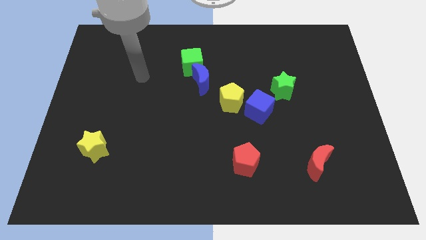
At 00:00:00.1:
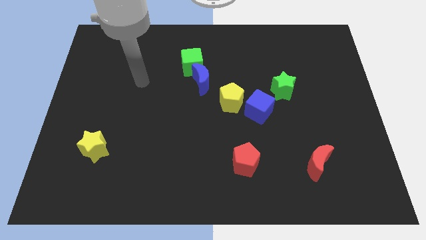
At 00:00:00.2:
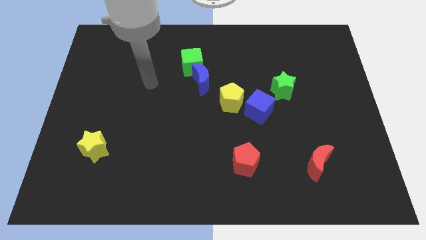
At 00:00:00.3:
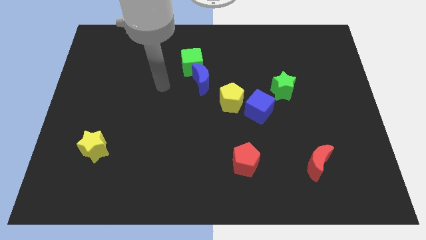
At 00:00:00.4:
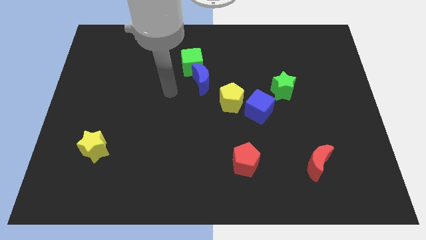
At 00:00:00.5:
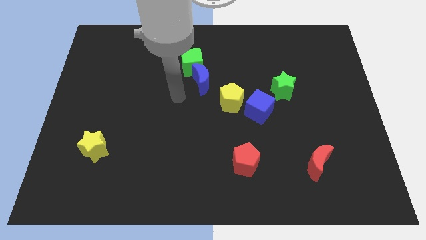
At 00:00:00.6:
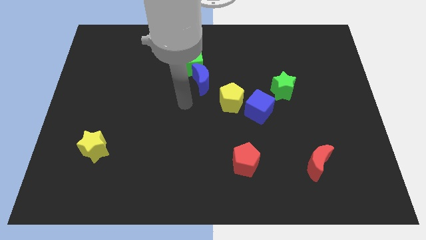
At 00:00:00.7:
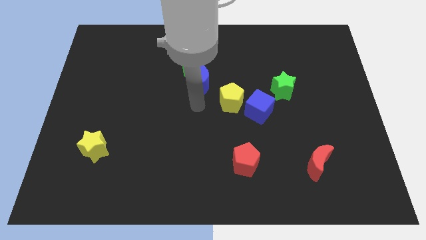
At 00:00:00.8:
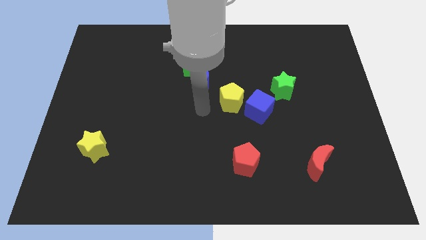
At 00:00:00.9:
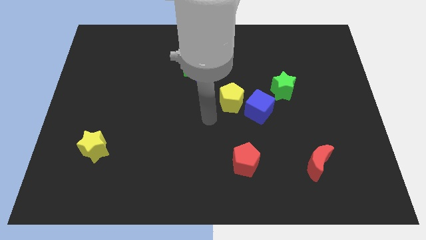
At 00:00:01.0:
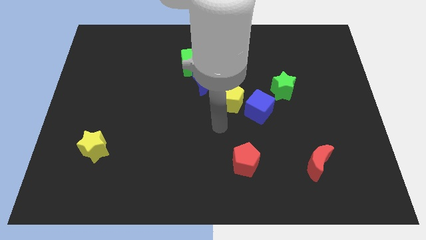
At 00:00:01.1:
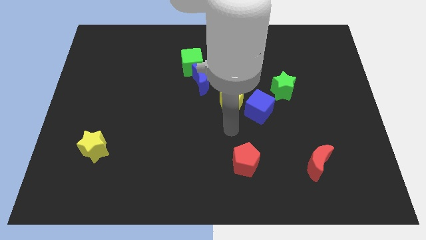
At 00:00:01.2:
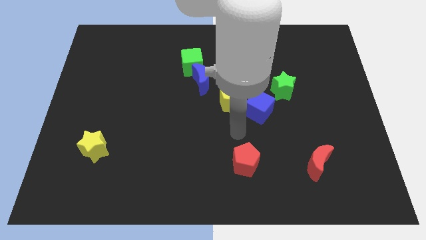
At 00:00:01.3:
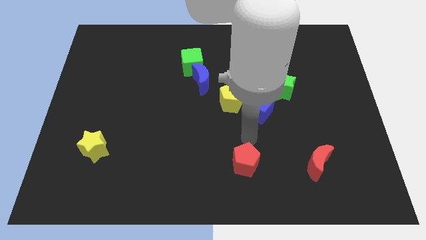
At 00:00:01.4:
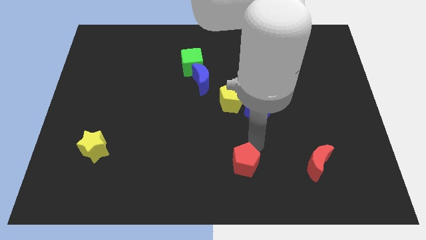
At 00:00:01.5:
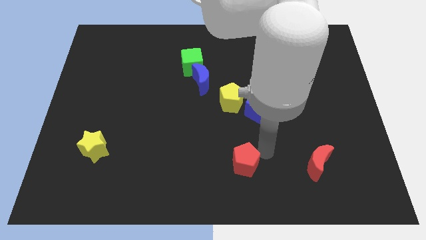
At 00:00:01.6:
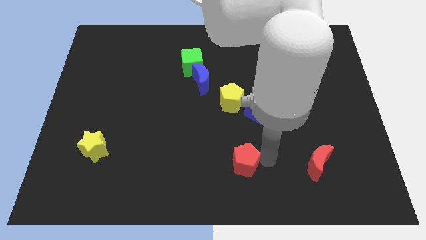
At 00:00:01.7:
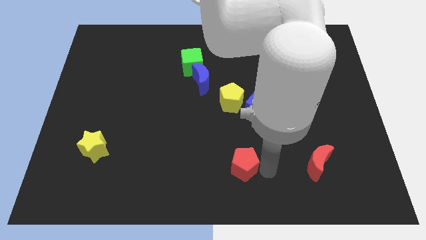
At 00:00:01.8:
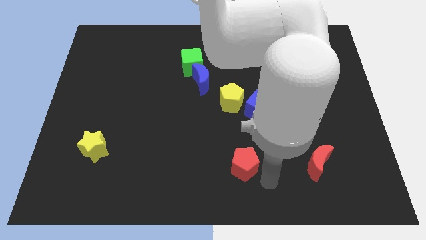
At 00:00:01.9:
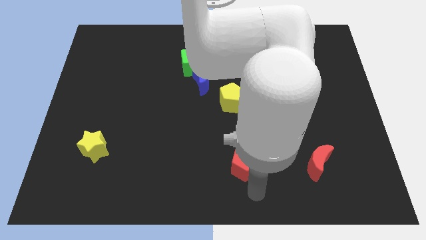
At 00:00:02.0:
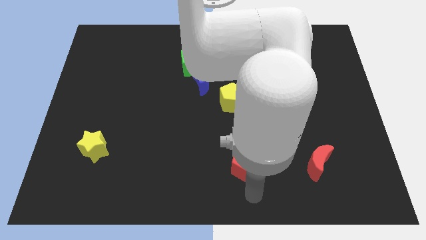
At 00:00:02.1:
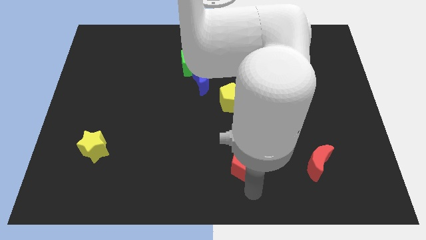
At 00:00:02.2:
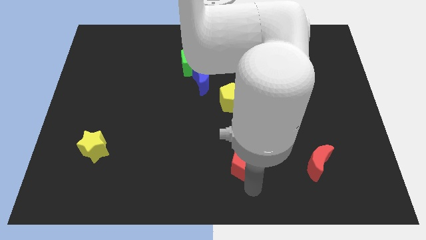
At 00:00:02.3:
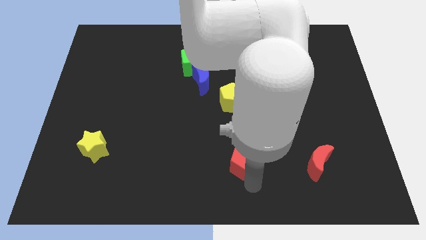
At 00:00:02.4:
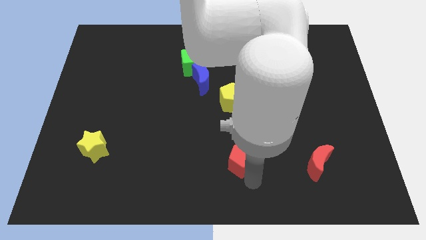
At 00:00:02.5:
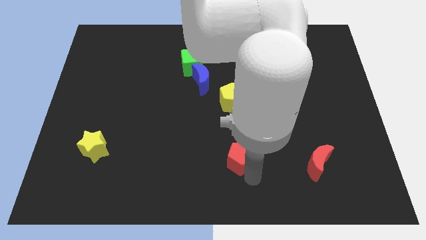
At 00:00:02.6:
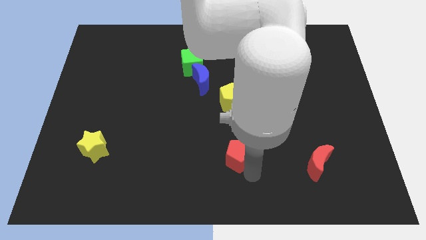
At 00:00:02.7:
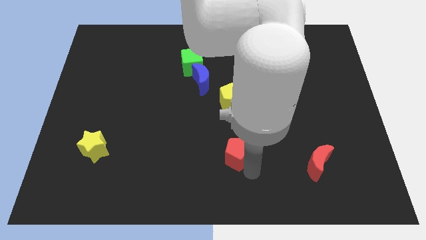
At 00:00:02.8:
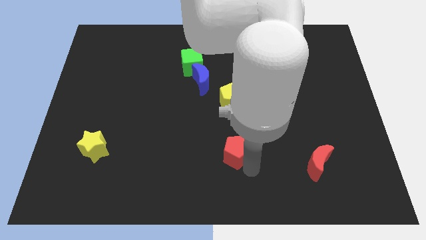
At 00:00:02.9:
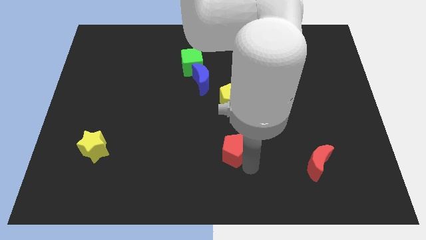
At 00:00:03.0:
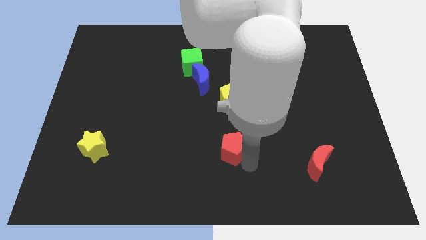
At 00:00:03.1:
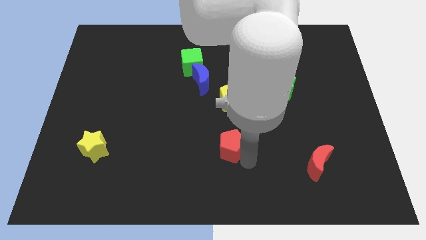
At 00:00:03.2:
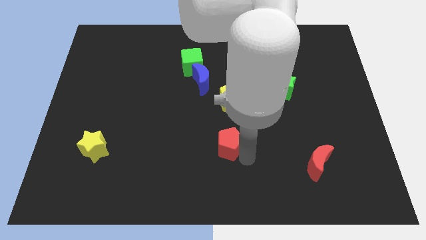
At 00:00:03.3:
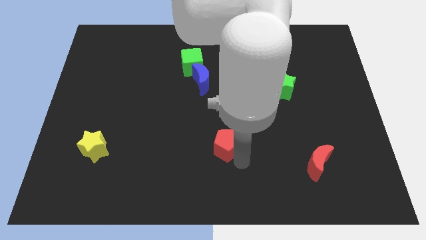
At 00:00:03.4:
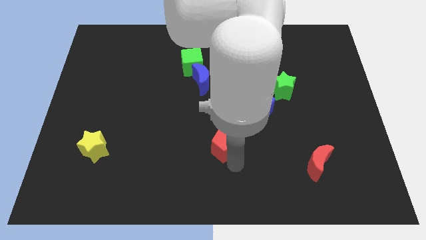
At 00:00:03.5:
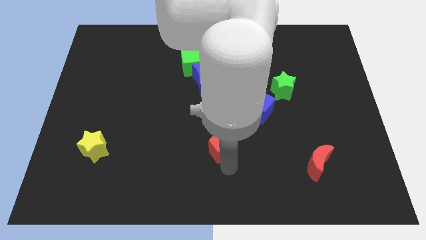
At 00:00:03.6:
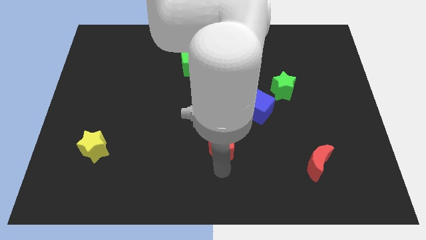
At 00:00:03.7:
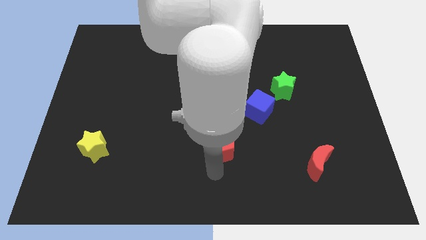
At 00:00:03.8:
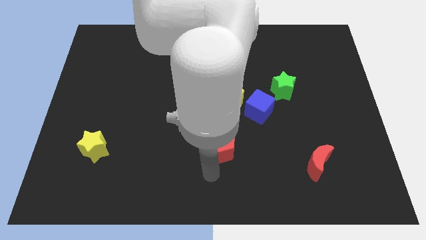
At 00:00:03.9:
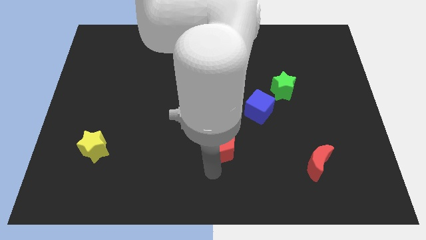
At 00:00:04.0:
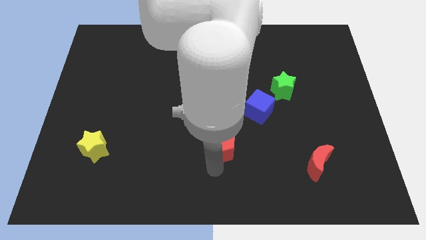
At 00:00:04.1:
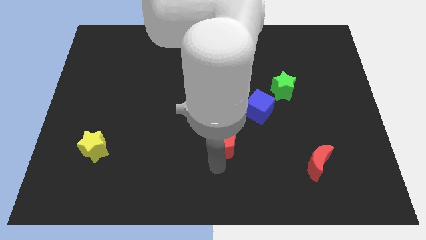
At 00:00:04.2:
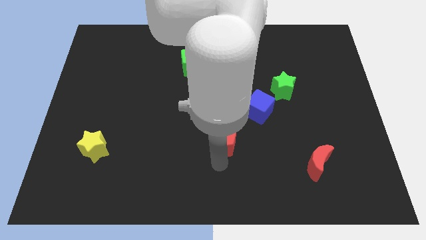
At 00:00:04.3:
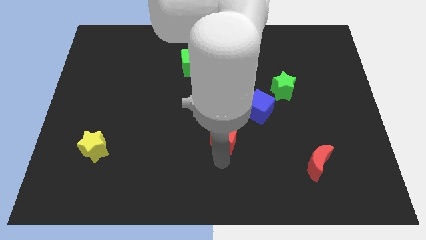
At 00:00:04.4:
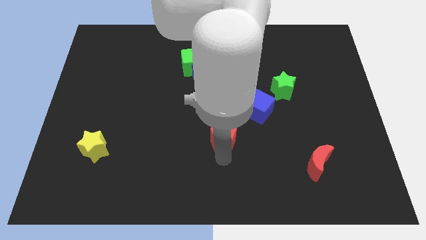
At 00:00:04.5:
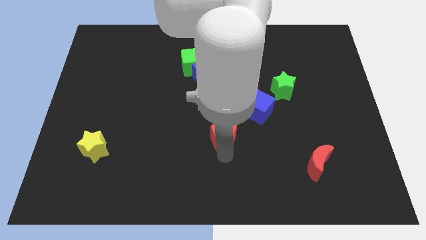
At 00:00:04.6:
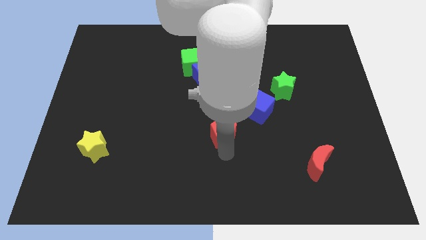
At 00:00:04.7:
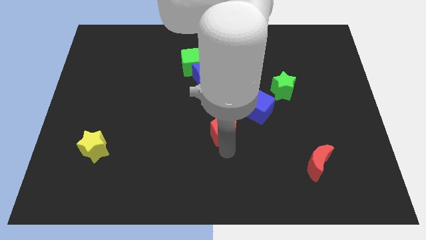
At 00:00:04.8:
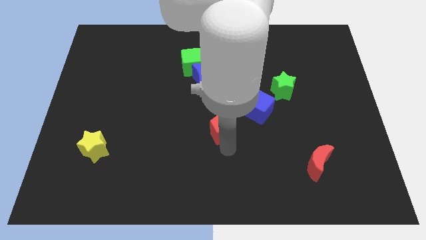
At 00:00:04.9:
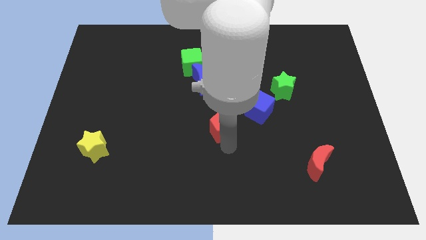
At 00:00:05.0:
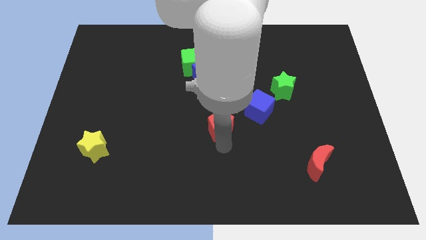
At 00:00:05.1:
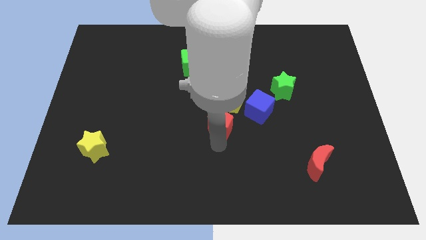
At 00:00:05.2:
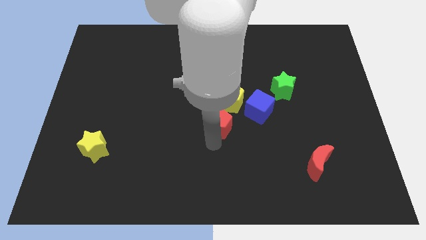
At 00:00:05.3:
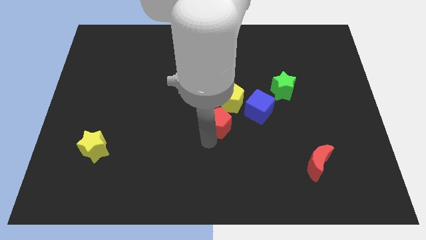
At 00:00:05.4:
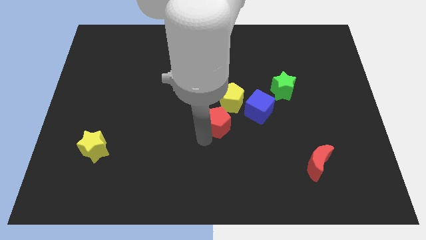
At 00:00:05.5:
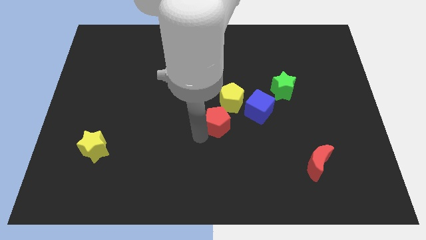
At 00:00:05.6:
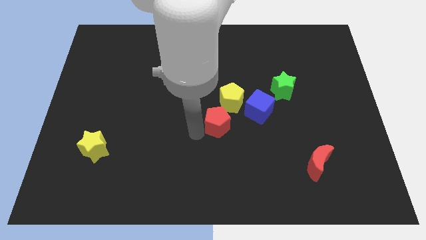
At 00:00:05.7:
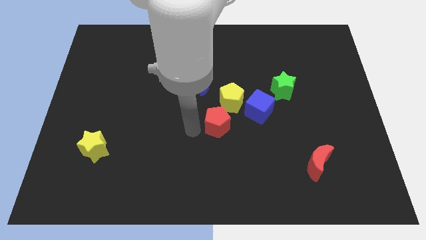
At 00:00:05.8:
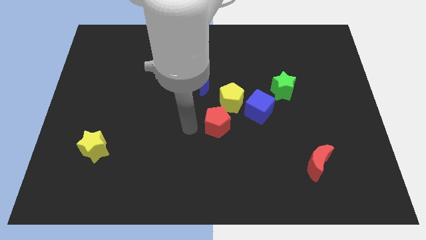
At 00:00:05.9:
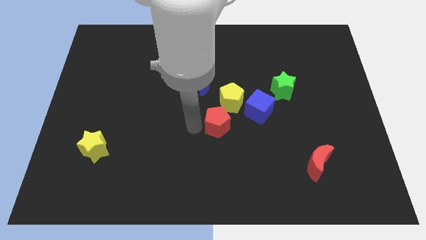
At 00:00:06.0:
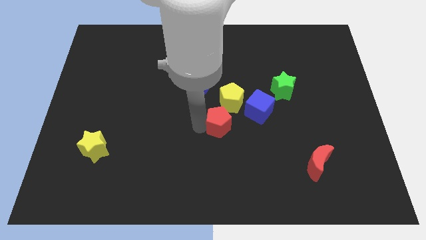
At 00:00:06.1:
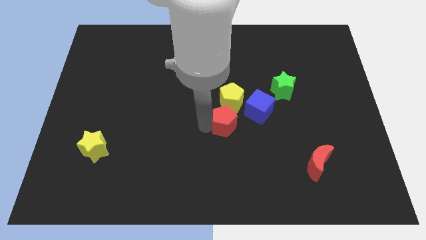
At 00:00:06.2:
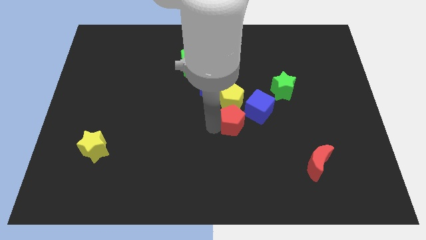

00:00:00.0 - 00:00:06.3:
push the red pentagon close to the yellow pentagon
